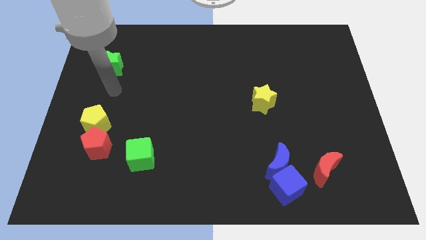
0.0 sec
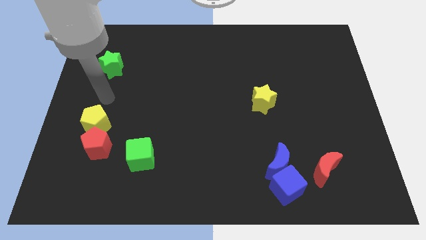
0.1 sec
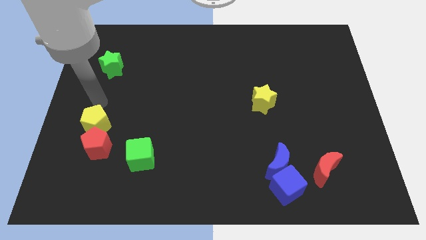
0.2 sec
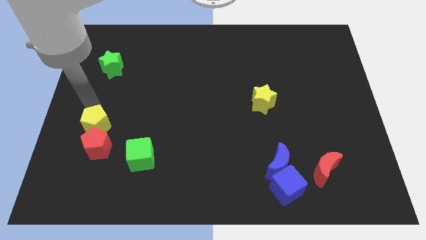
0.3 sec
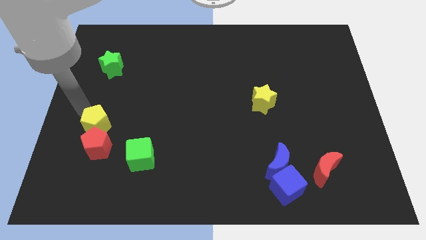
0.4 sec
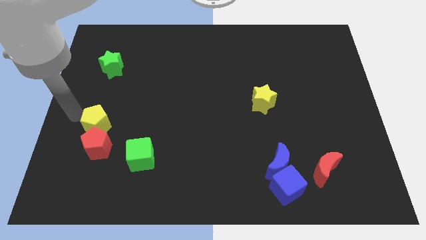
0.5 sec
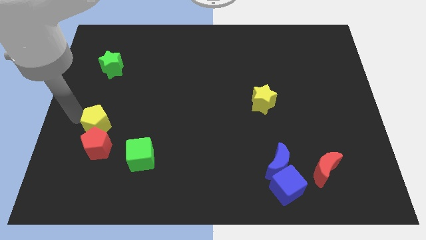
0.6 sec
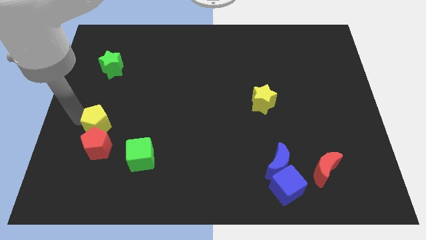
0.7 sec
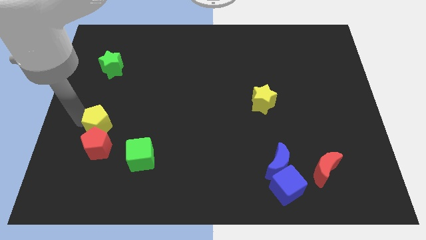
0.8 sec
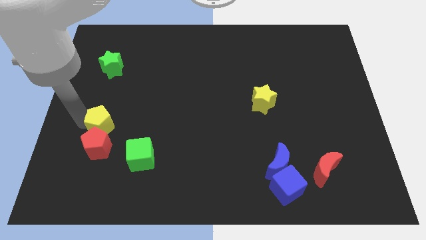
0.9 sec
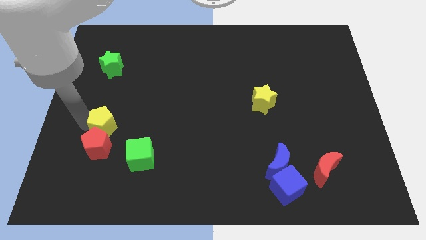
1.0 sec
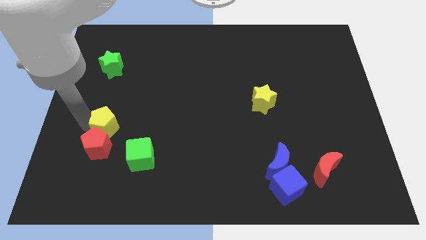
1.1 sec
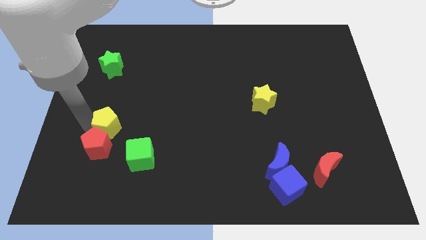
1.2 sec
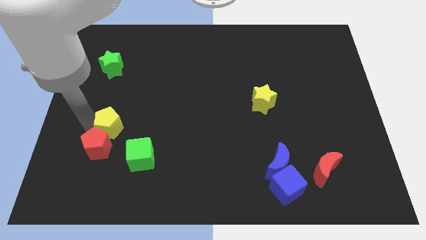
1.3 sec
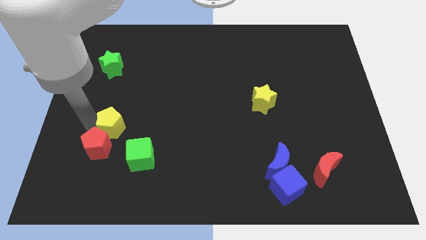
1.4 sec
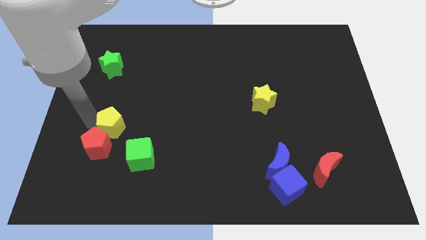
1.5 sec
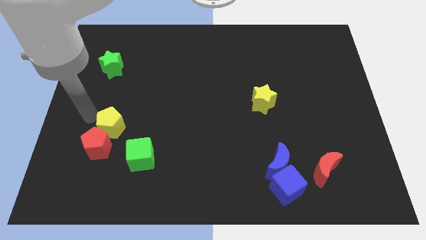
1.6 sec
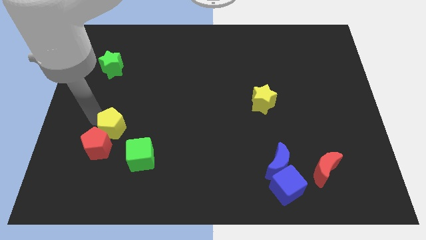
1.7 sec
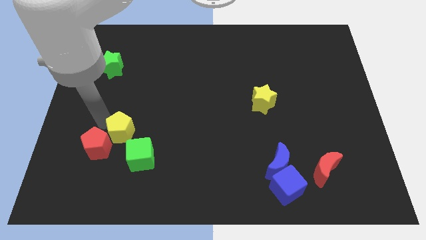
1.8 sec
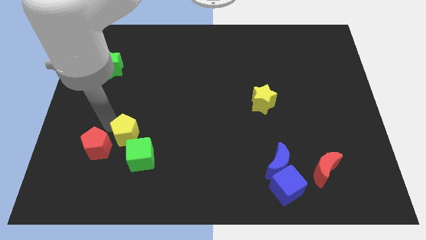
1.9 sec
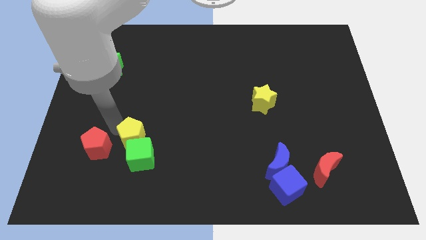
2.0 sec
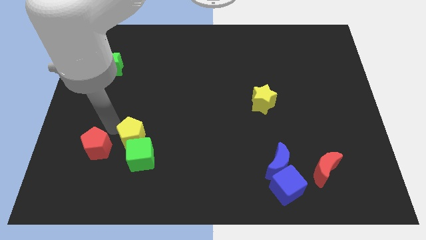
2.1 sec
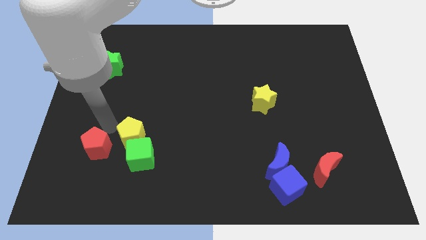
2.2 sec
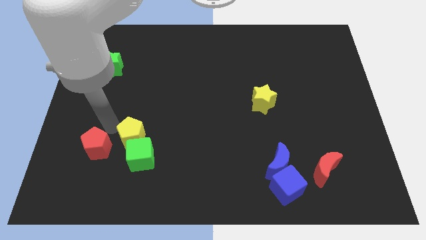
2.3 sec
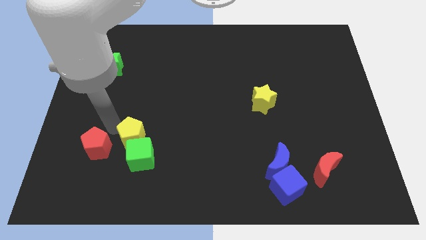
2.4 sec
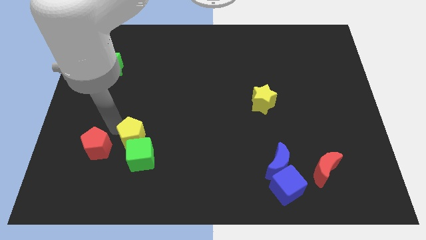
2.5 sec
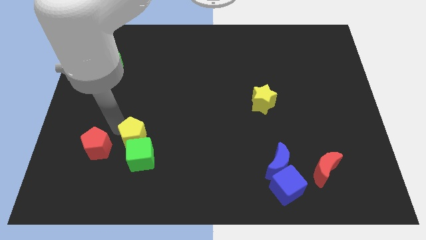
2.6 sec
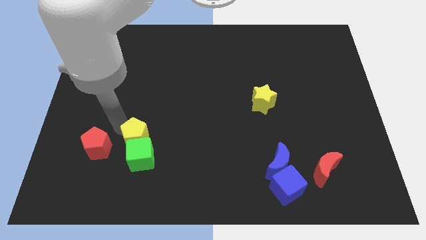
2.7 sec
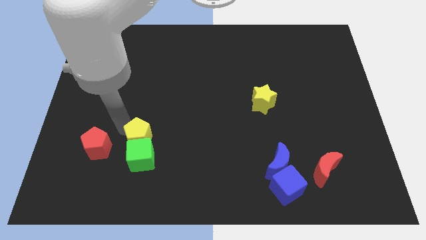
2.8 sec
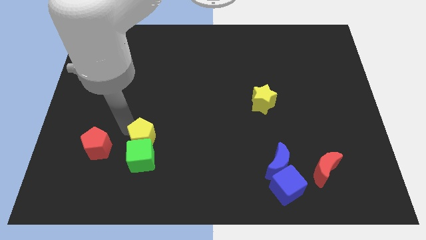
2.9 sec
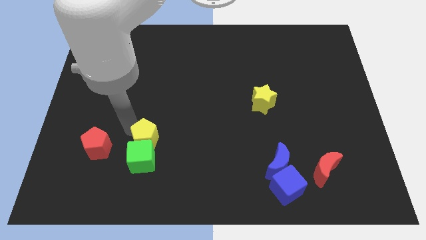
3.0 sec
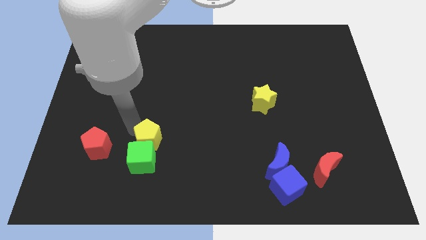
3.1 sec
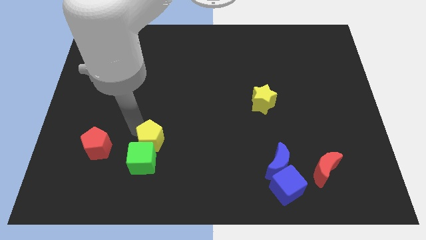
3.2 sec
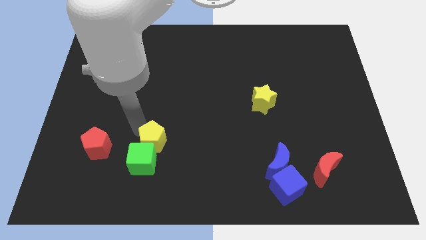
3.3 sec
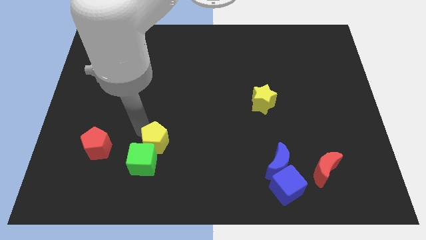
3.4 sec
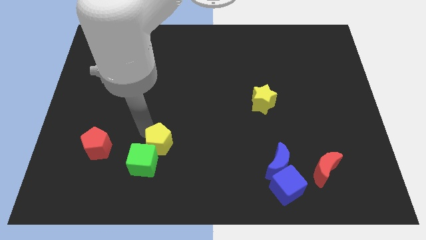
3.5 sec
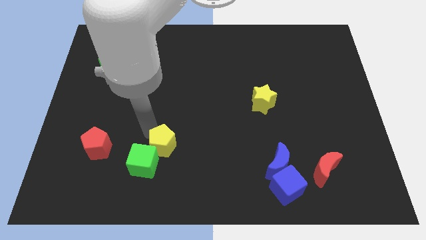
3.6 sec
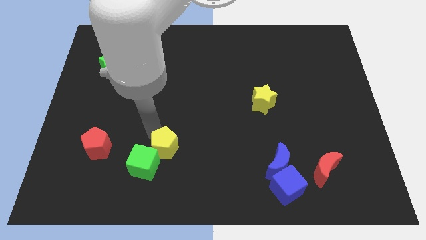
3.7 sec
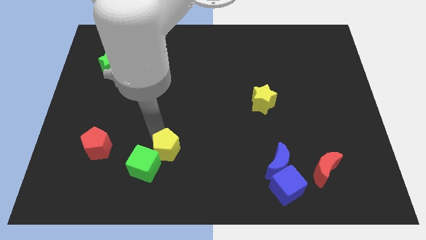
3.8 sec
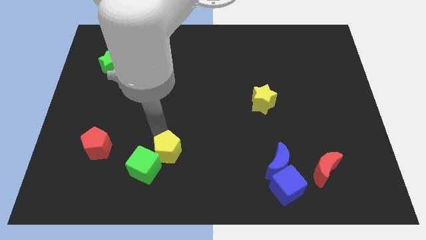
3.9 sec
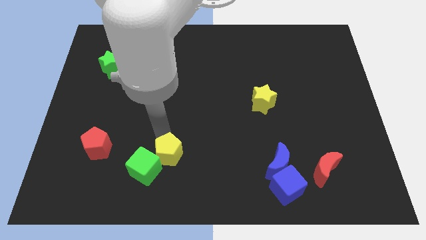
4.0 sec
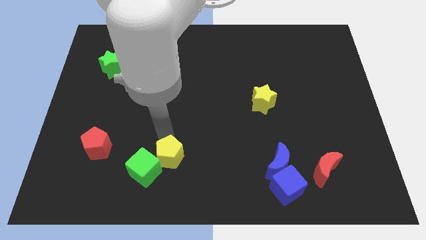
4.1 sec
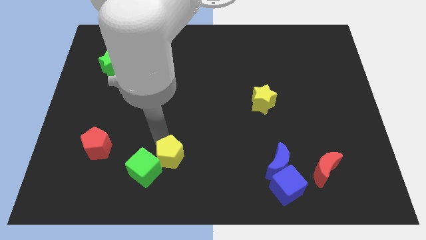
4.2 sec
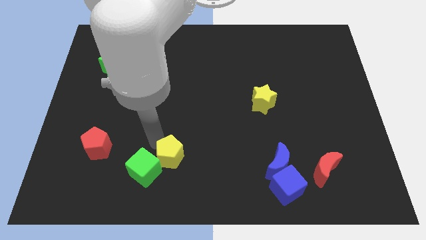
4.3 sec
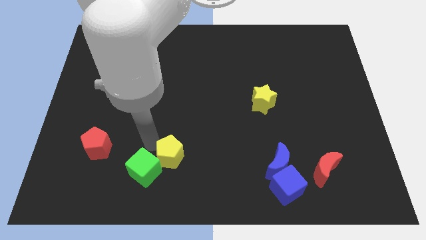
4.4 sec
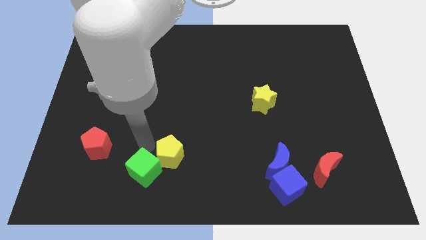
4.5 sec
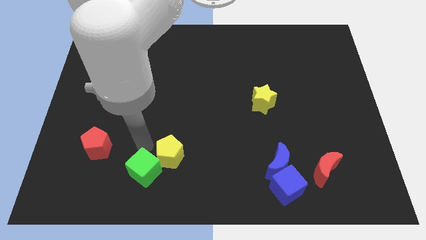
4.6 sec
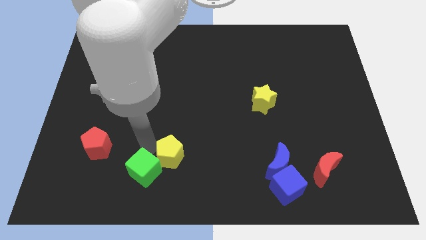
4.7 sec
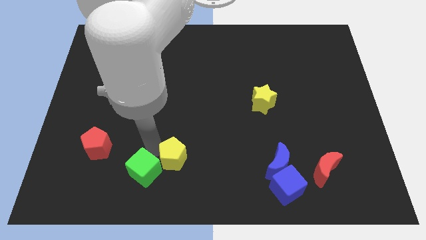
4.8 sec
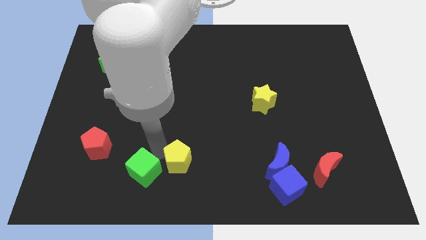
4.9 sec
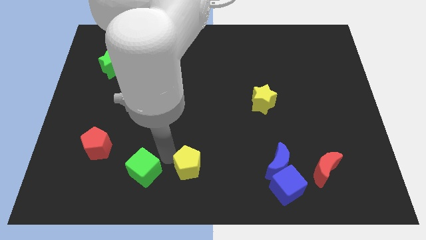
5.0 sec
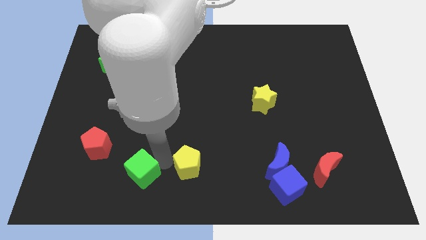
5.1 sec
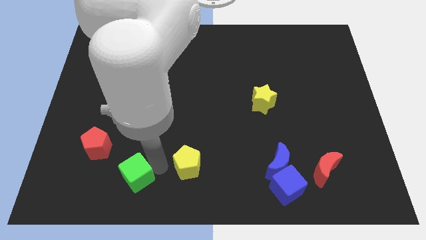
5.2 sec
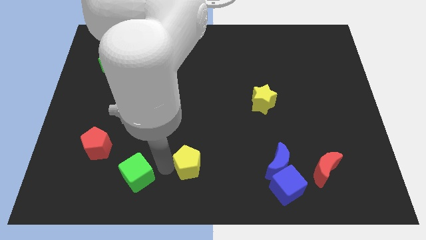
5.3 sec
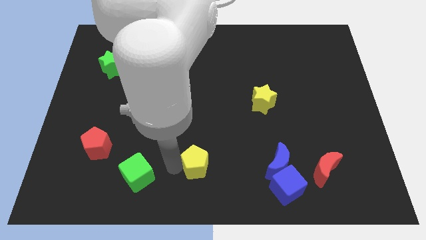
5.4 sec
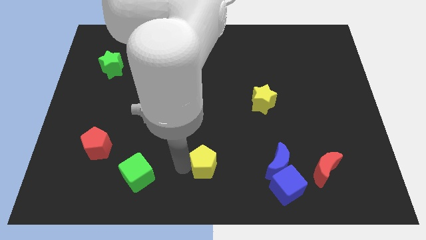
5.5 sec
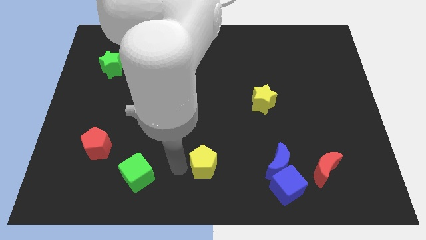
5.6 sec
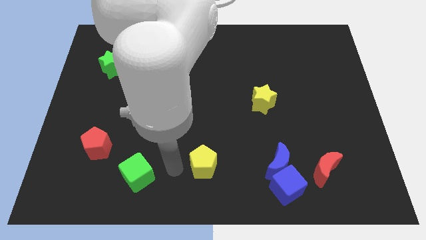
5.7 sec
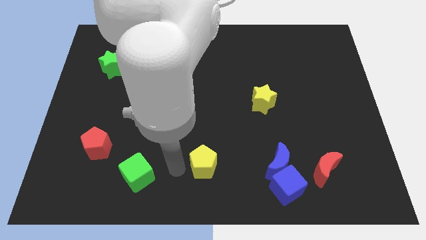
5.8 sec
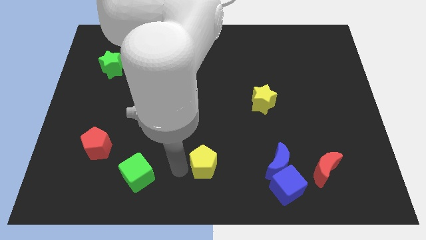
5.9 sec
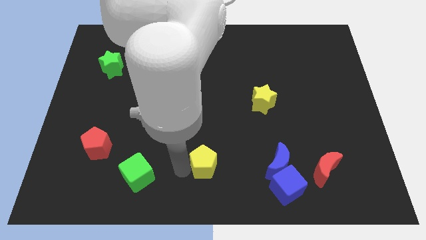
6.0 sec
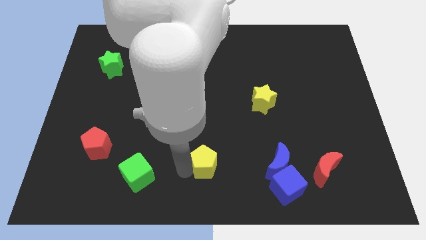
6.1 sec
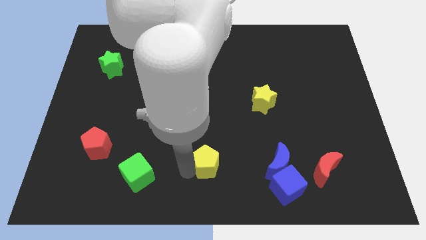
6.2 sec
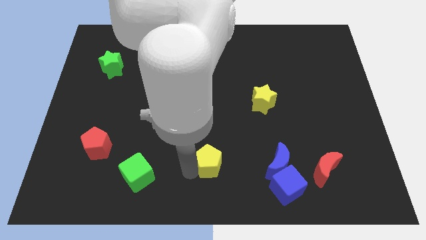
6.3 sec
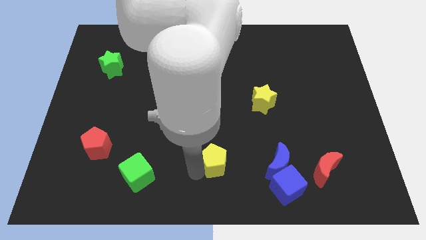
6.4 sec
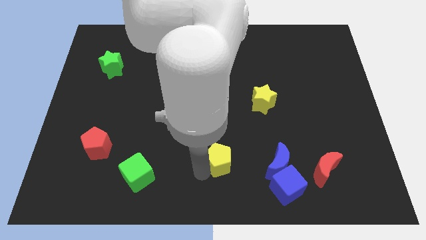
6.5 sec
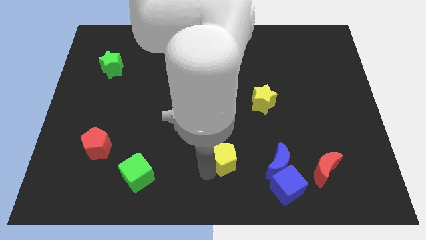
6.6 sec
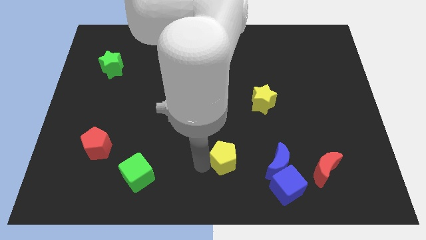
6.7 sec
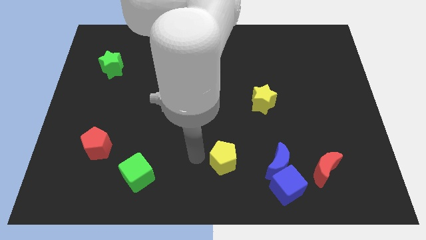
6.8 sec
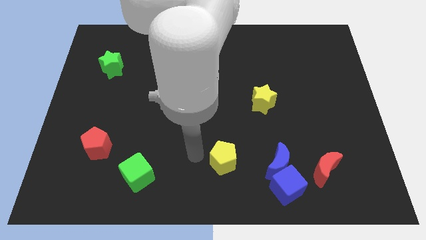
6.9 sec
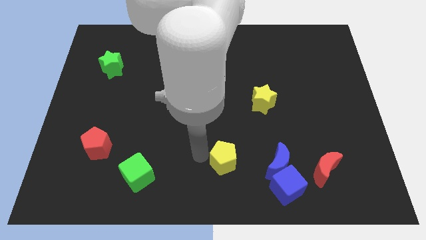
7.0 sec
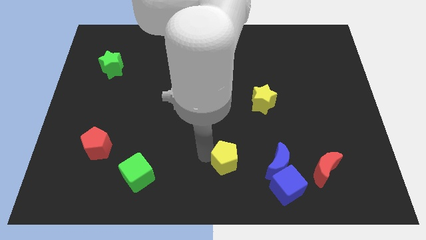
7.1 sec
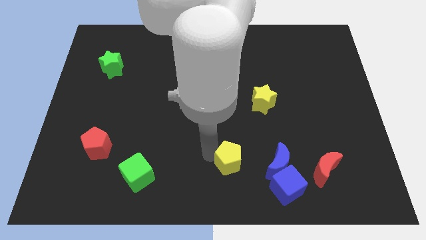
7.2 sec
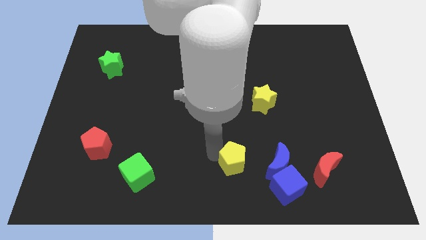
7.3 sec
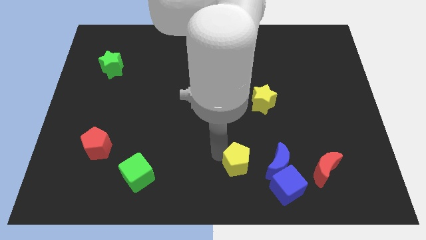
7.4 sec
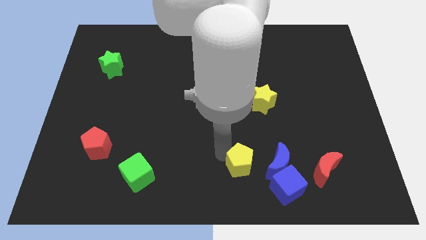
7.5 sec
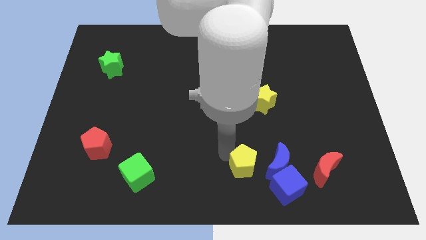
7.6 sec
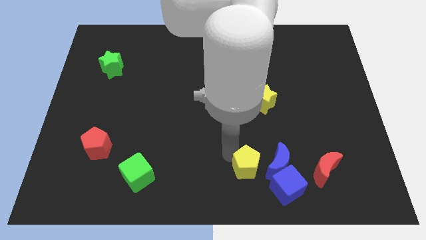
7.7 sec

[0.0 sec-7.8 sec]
slide the yellow pentagon just left of the red moon
